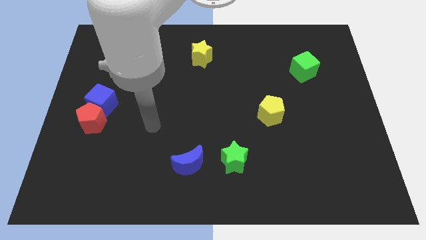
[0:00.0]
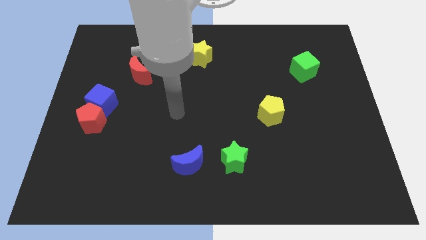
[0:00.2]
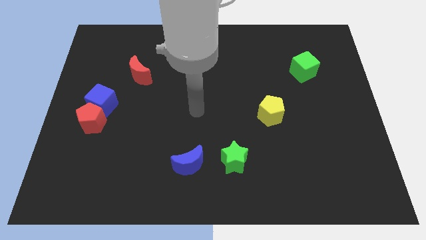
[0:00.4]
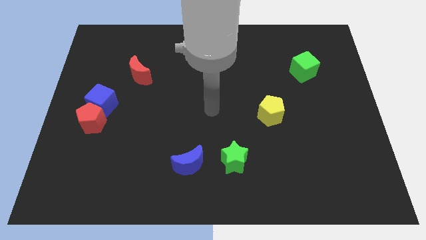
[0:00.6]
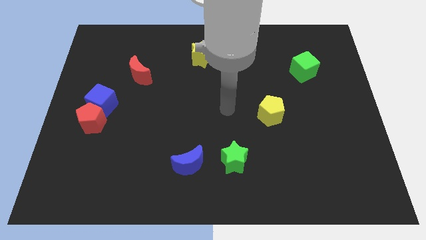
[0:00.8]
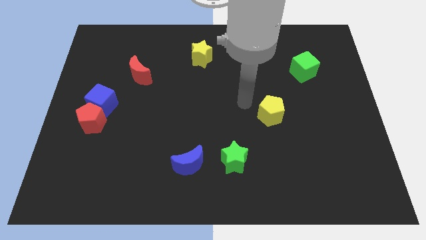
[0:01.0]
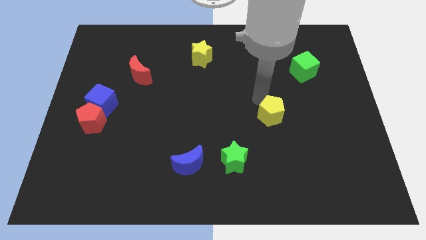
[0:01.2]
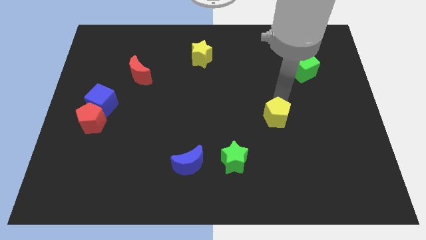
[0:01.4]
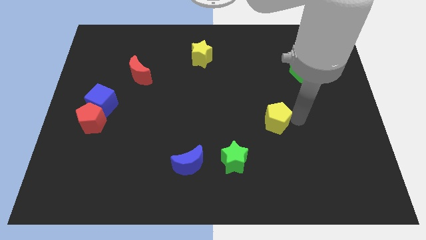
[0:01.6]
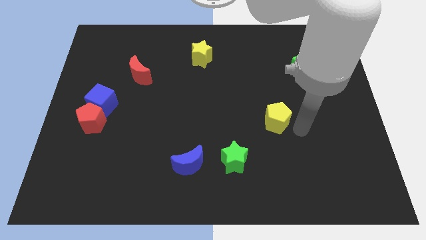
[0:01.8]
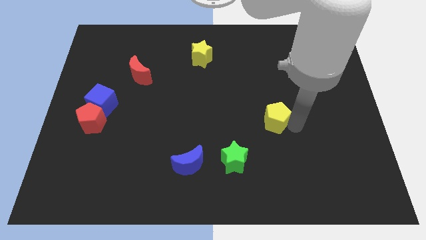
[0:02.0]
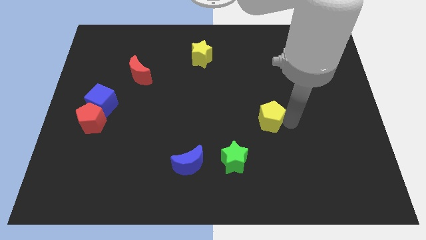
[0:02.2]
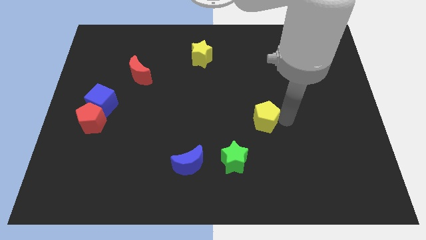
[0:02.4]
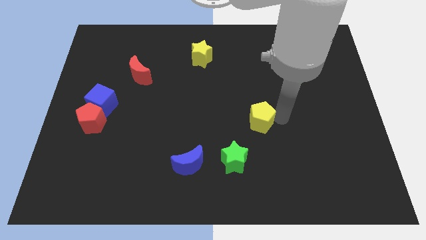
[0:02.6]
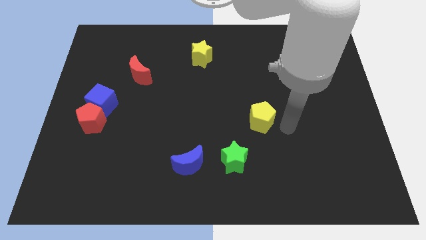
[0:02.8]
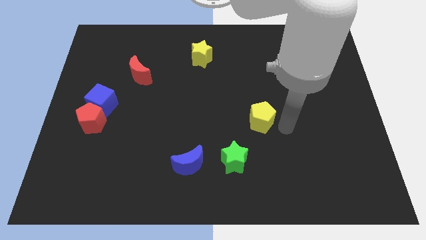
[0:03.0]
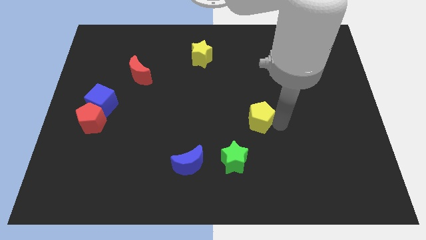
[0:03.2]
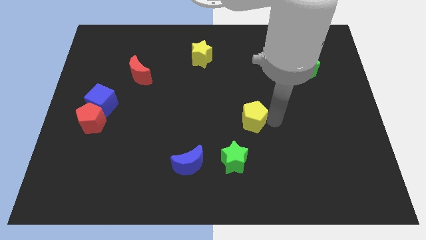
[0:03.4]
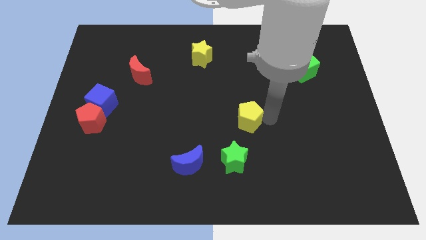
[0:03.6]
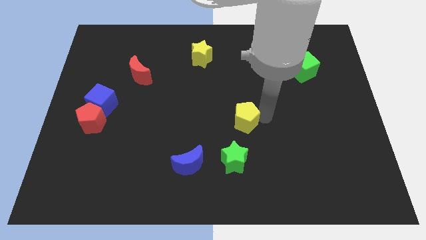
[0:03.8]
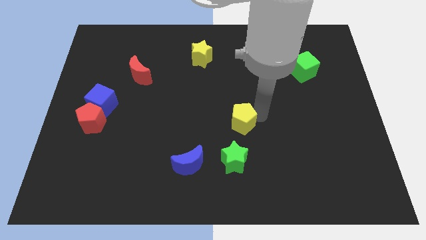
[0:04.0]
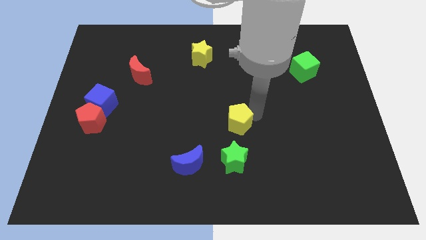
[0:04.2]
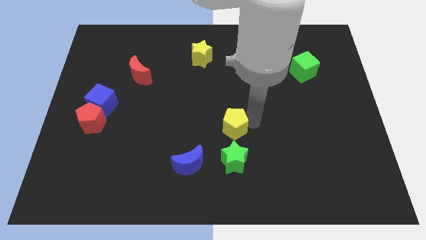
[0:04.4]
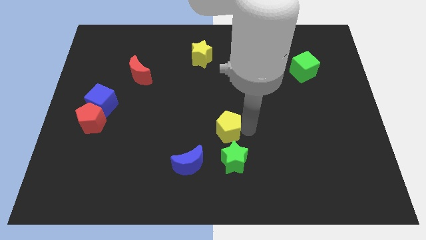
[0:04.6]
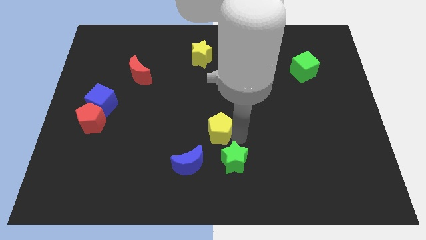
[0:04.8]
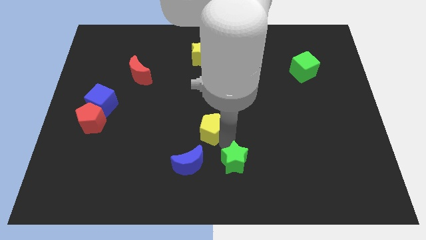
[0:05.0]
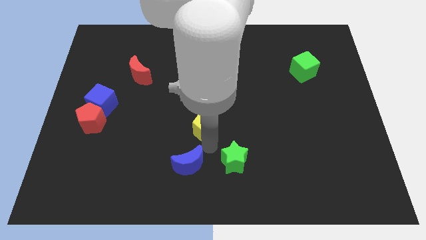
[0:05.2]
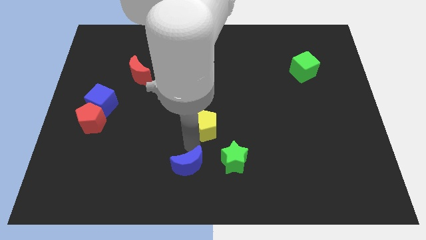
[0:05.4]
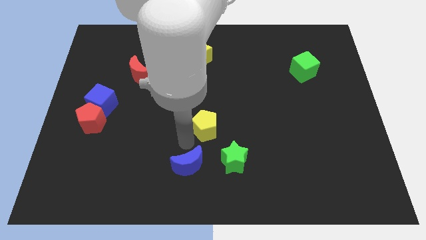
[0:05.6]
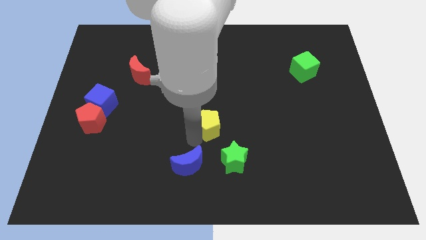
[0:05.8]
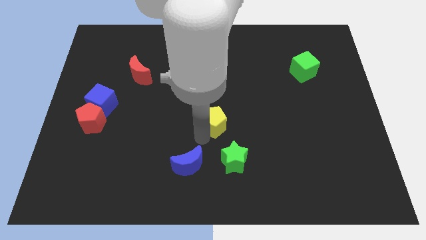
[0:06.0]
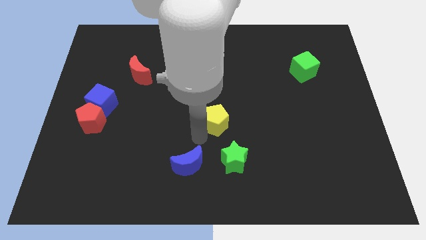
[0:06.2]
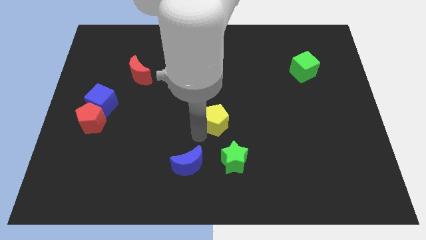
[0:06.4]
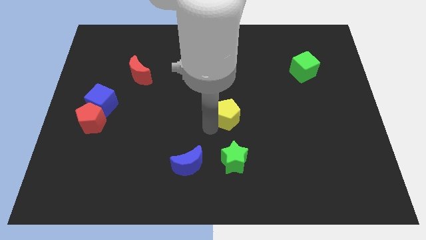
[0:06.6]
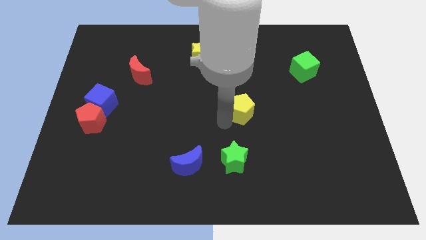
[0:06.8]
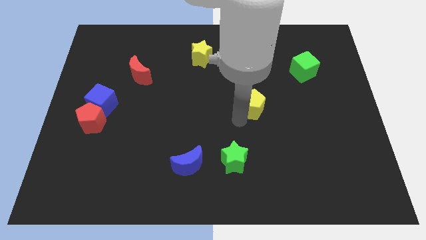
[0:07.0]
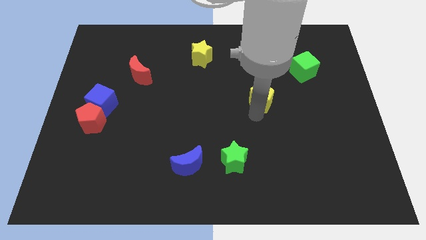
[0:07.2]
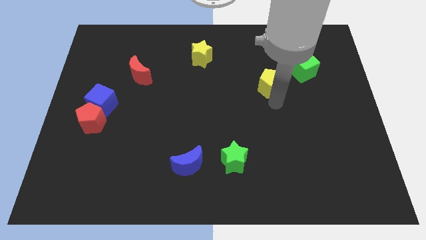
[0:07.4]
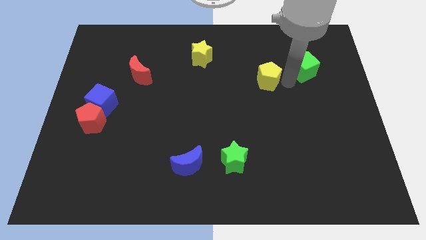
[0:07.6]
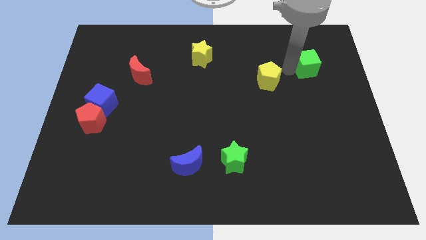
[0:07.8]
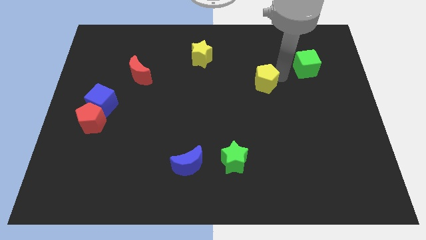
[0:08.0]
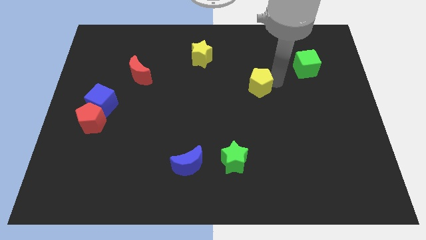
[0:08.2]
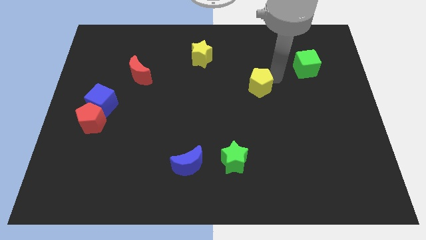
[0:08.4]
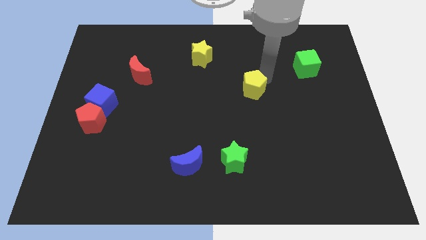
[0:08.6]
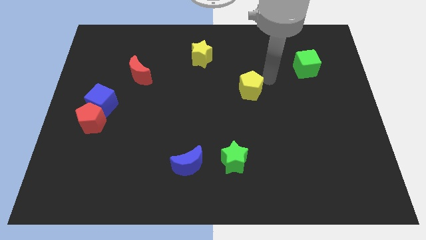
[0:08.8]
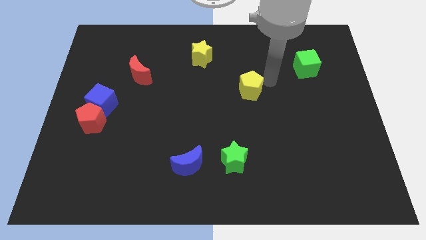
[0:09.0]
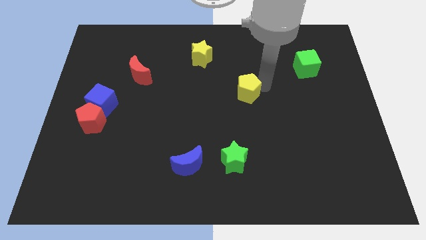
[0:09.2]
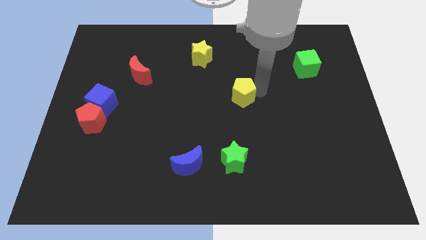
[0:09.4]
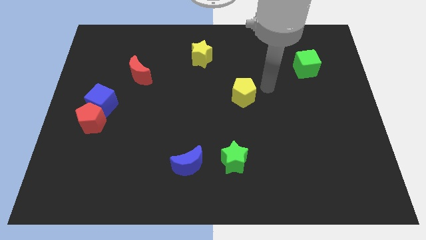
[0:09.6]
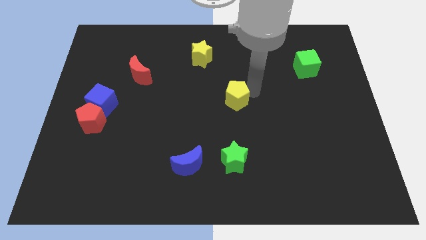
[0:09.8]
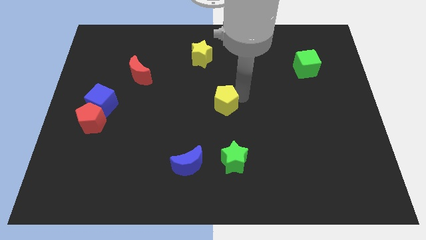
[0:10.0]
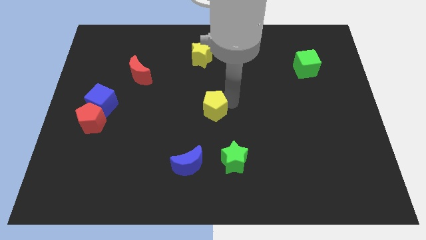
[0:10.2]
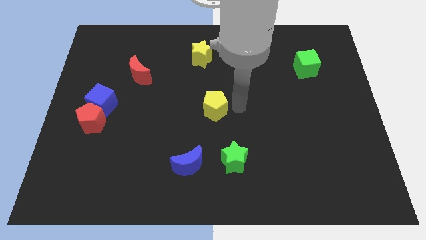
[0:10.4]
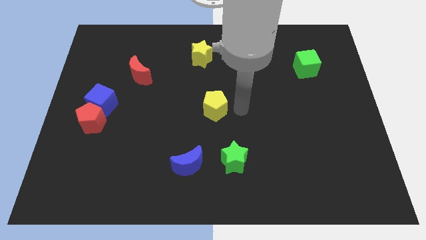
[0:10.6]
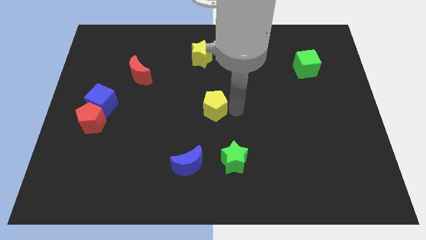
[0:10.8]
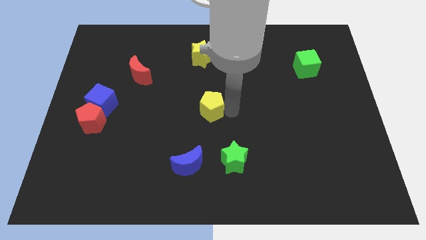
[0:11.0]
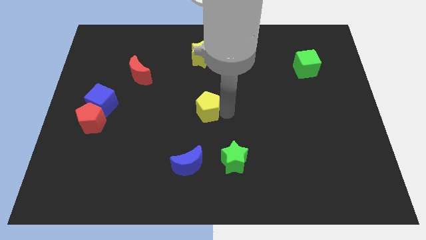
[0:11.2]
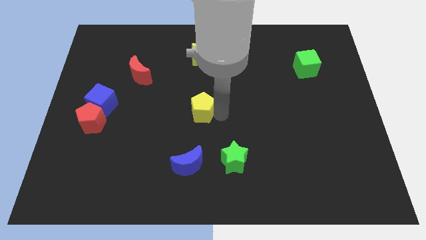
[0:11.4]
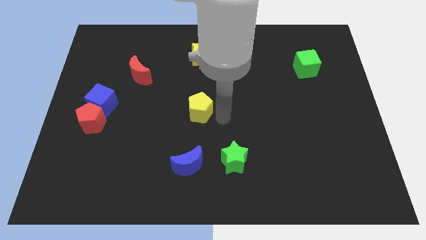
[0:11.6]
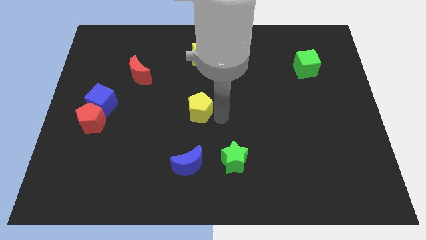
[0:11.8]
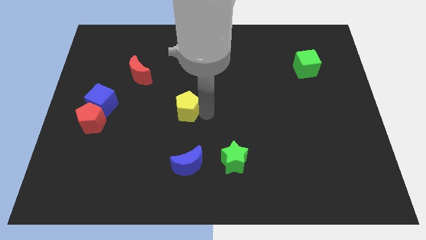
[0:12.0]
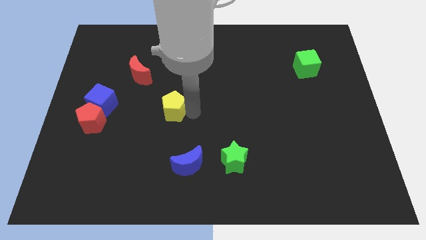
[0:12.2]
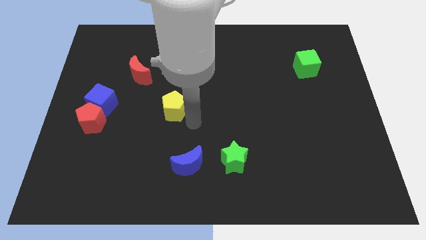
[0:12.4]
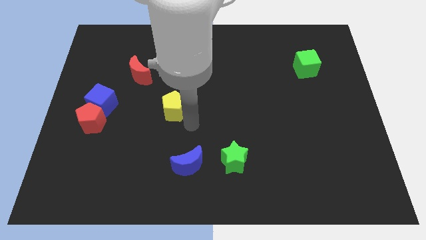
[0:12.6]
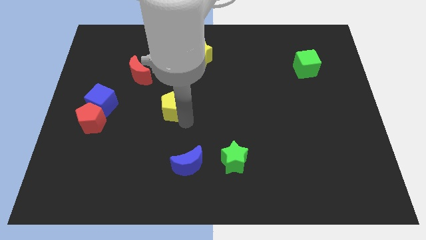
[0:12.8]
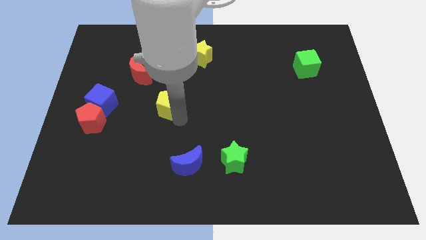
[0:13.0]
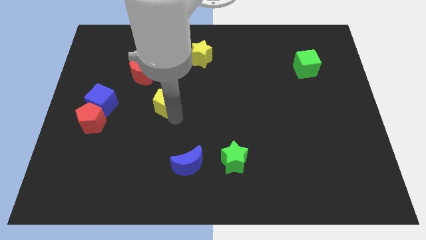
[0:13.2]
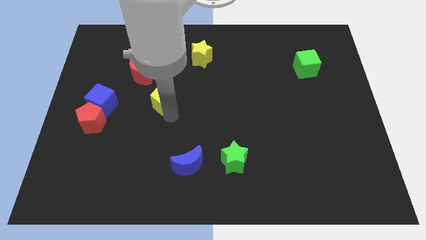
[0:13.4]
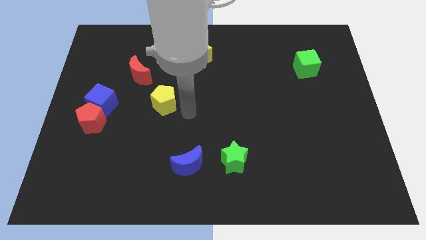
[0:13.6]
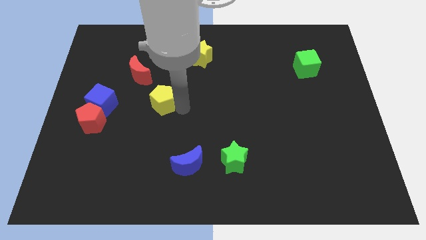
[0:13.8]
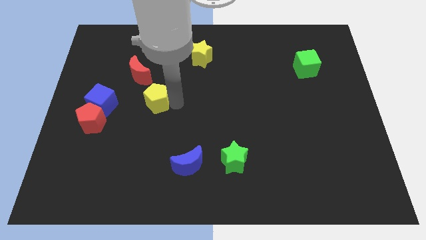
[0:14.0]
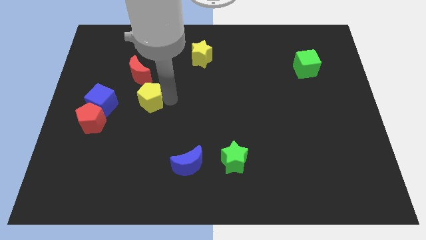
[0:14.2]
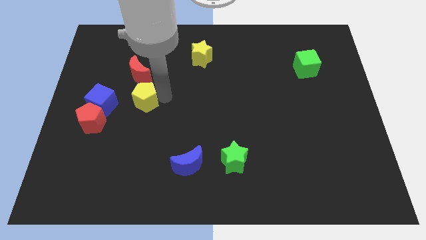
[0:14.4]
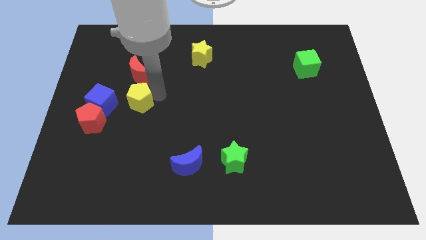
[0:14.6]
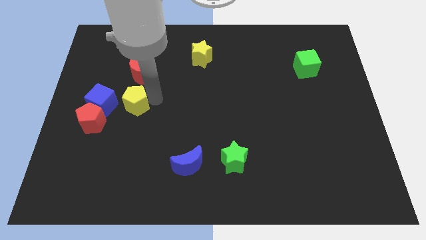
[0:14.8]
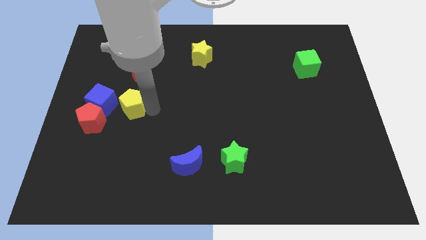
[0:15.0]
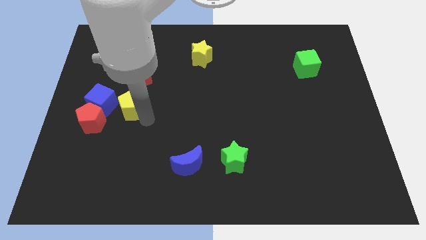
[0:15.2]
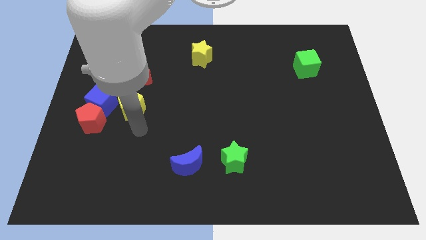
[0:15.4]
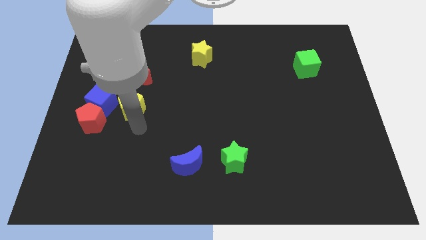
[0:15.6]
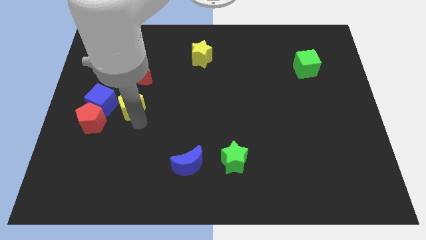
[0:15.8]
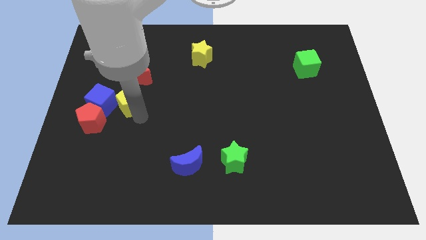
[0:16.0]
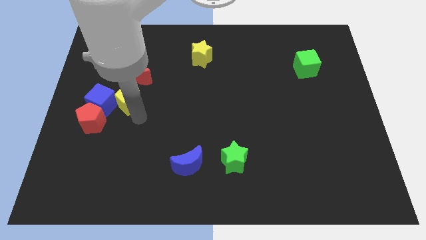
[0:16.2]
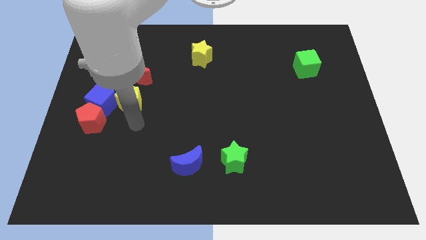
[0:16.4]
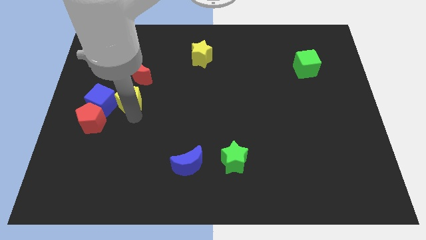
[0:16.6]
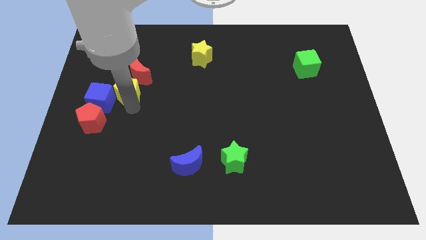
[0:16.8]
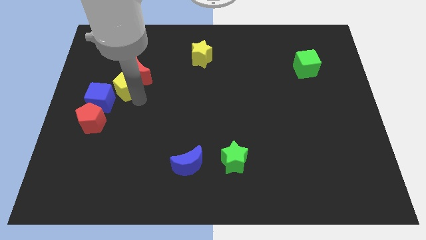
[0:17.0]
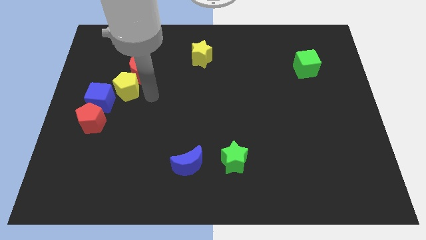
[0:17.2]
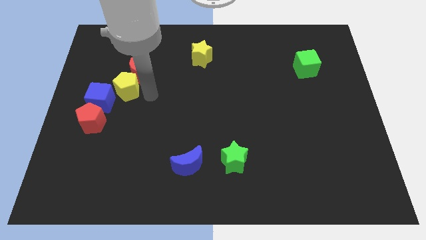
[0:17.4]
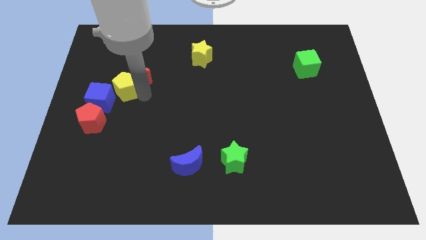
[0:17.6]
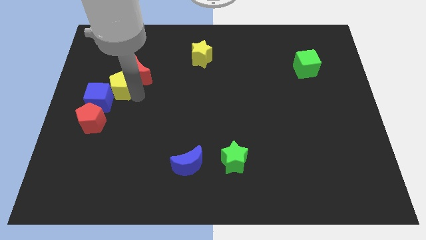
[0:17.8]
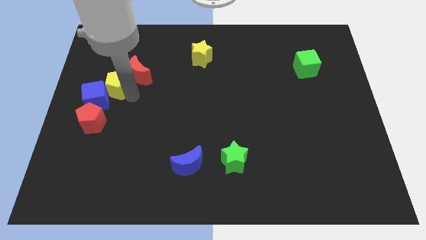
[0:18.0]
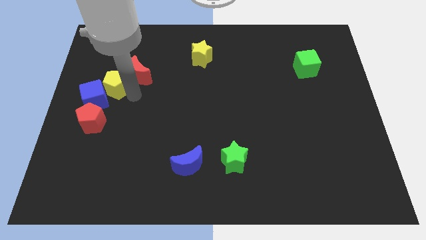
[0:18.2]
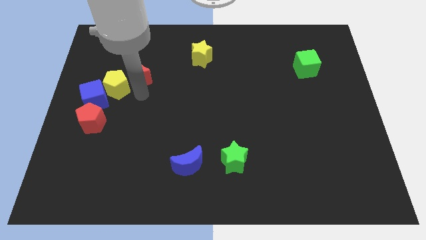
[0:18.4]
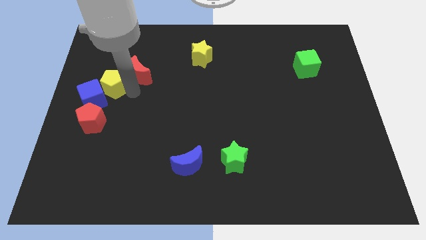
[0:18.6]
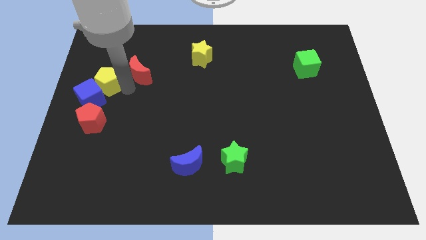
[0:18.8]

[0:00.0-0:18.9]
push the yellow pentagon to the left side of the board
